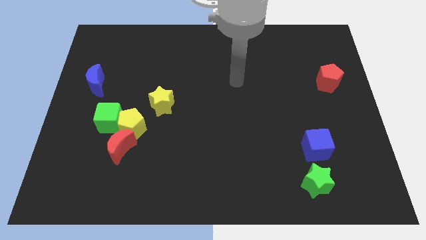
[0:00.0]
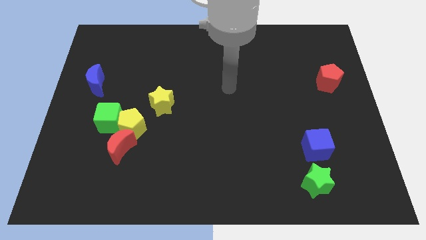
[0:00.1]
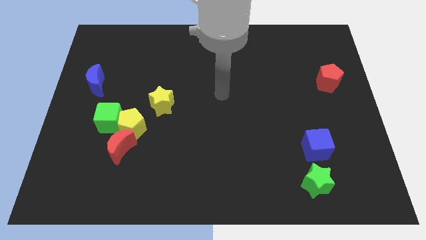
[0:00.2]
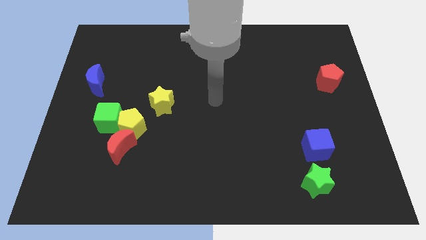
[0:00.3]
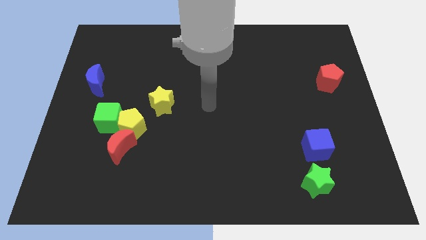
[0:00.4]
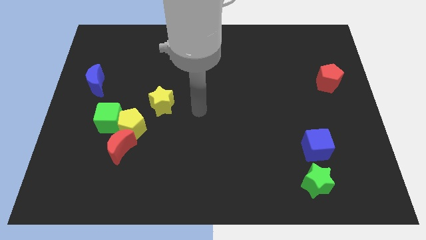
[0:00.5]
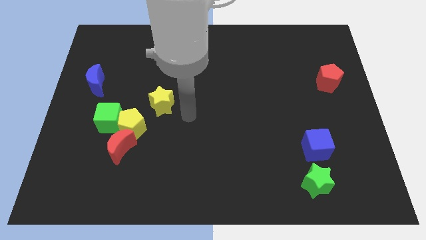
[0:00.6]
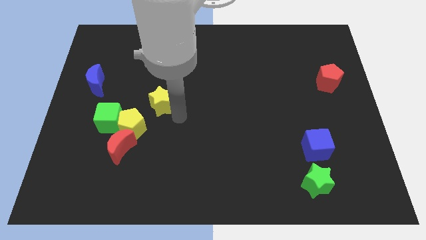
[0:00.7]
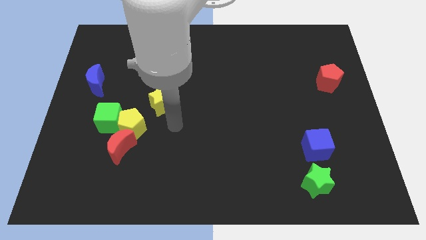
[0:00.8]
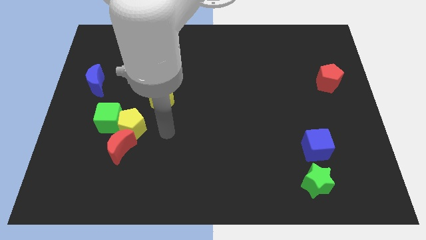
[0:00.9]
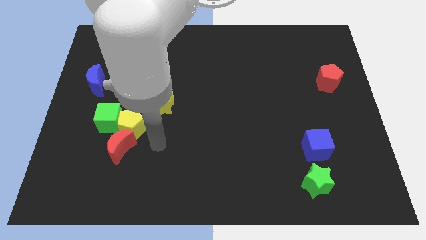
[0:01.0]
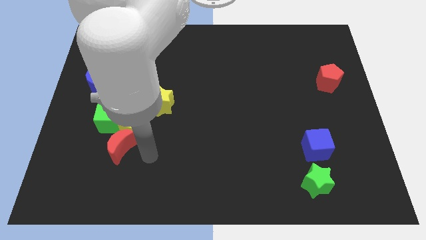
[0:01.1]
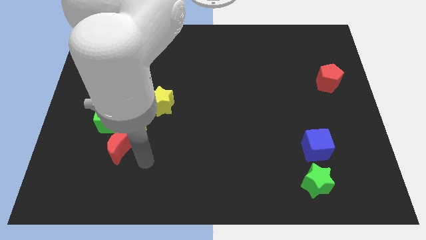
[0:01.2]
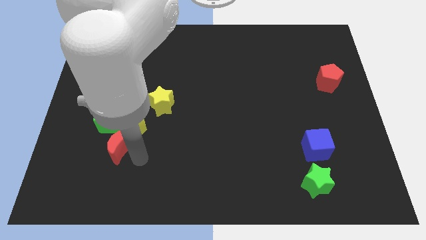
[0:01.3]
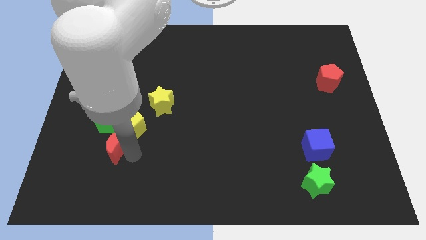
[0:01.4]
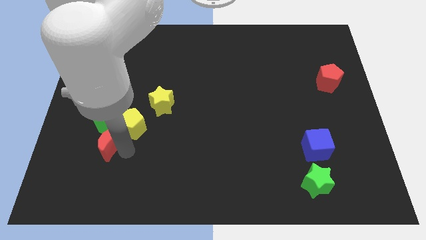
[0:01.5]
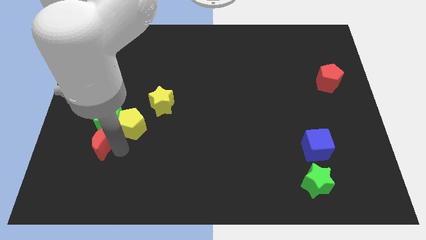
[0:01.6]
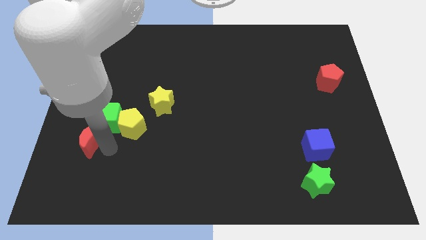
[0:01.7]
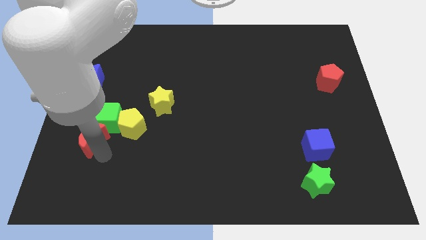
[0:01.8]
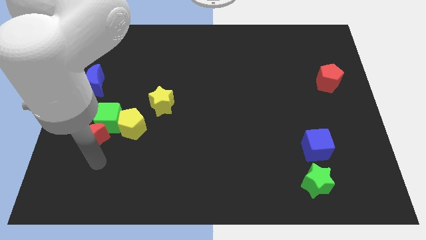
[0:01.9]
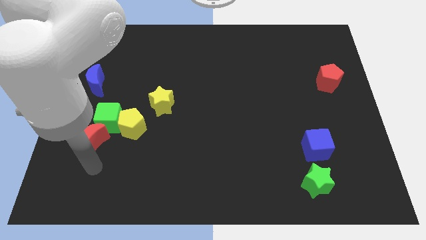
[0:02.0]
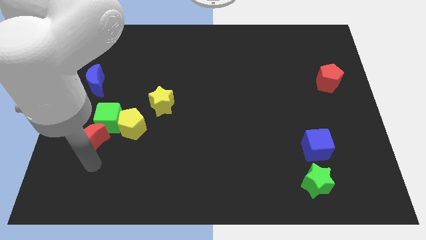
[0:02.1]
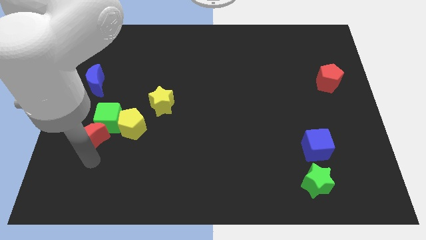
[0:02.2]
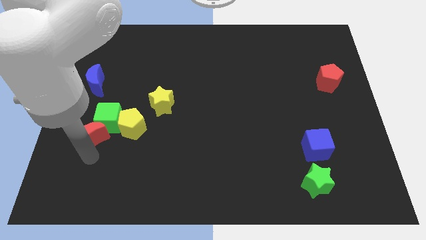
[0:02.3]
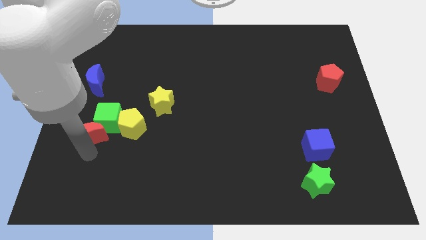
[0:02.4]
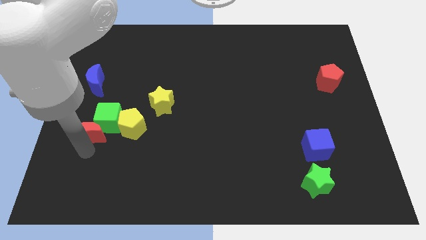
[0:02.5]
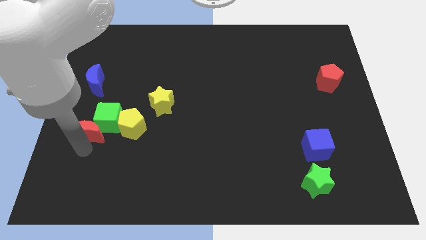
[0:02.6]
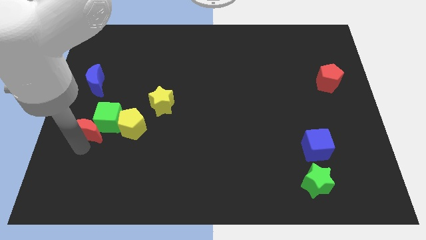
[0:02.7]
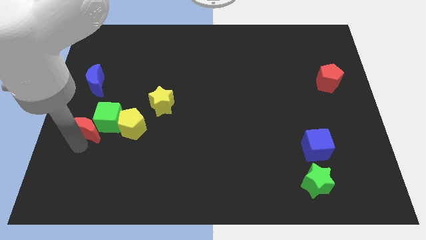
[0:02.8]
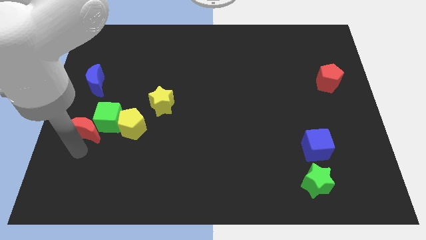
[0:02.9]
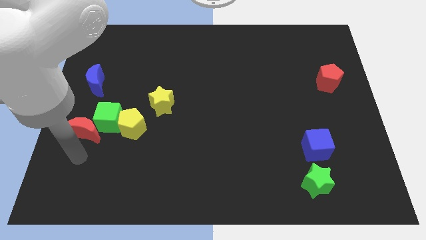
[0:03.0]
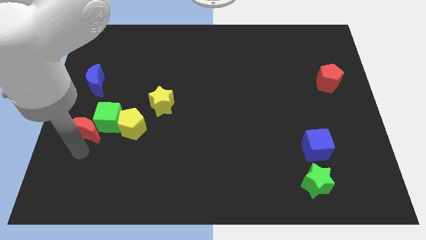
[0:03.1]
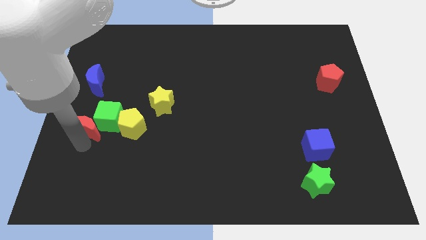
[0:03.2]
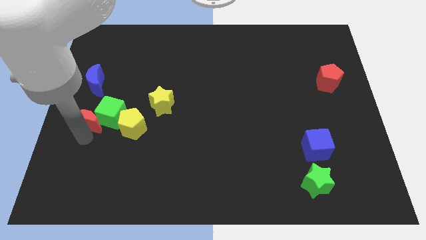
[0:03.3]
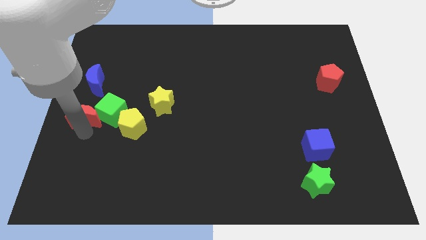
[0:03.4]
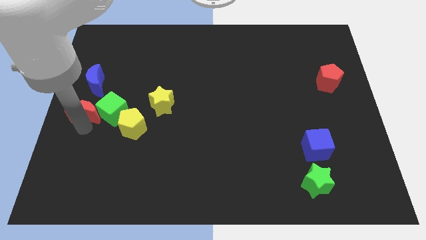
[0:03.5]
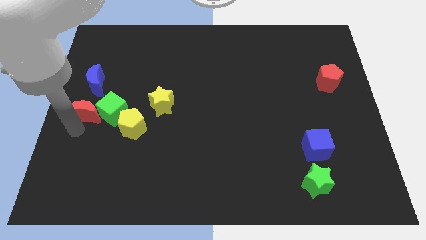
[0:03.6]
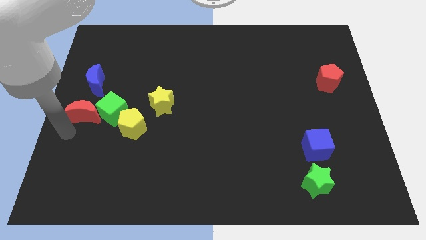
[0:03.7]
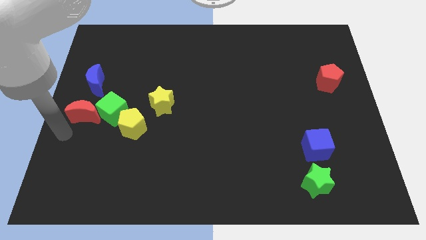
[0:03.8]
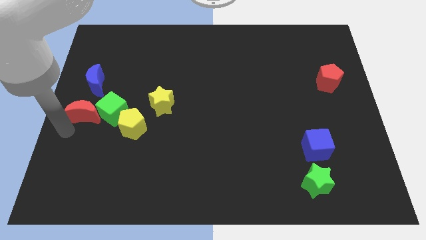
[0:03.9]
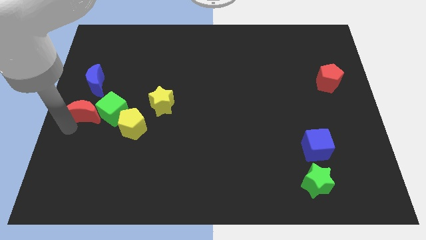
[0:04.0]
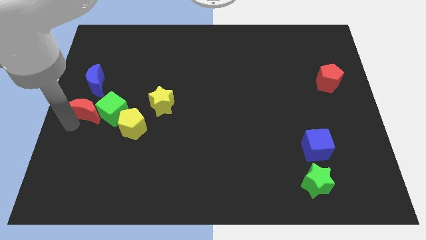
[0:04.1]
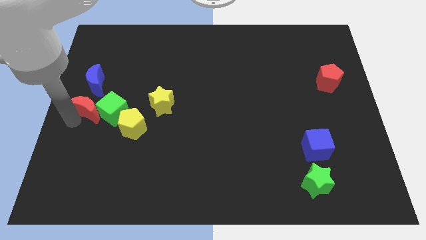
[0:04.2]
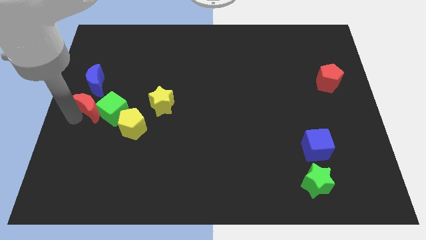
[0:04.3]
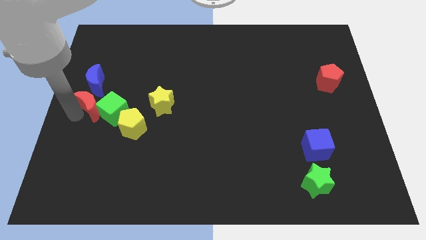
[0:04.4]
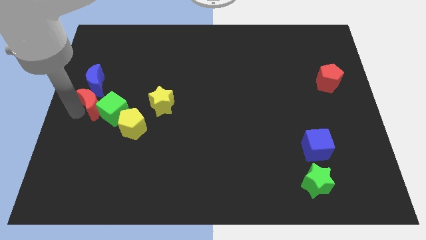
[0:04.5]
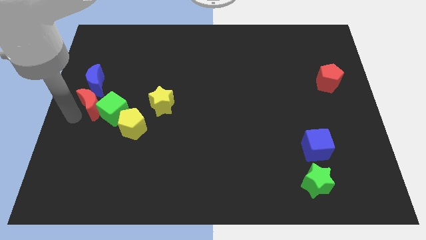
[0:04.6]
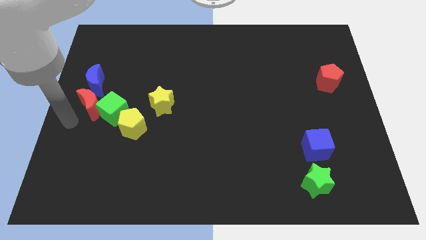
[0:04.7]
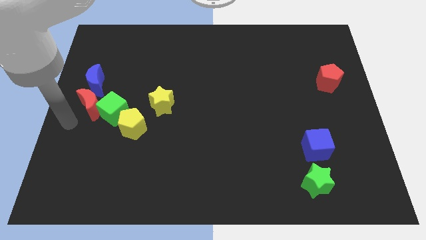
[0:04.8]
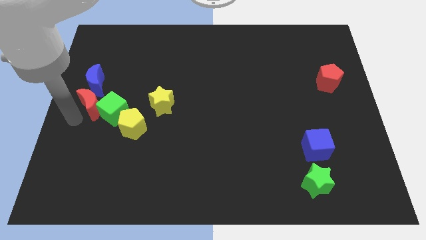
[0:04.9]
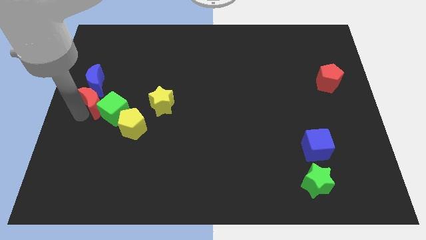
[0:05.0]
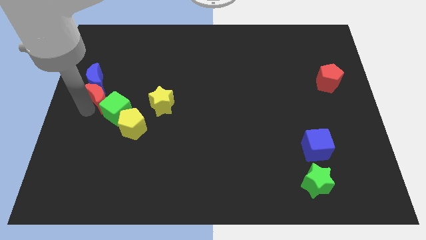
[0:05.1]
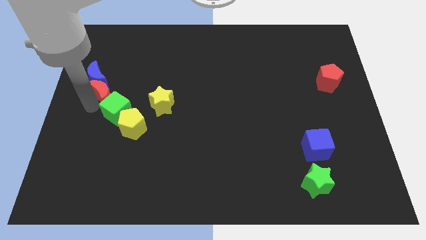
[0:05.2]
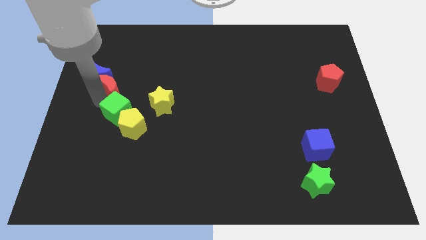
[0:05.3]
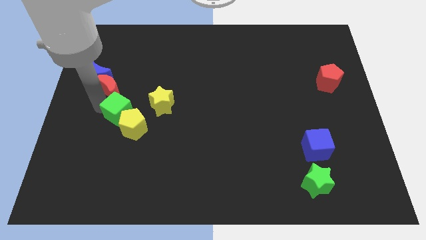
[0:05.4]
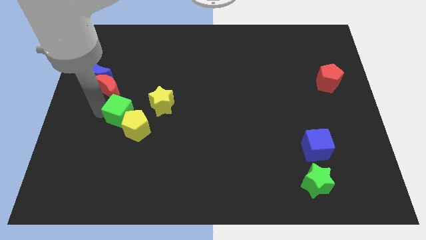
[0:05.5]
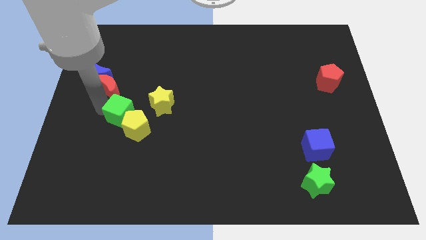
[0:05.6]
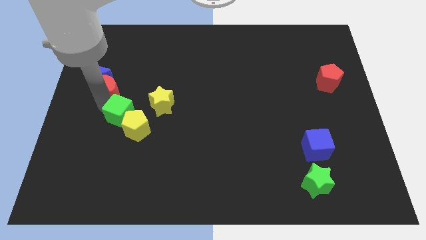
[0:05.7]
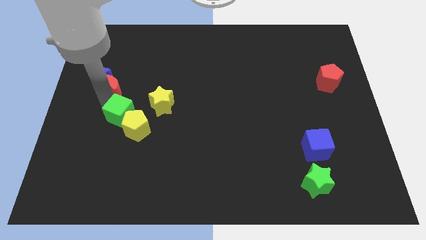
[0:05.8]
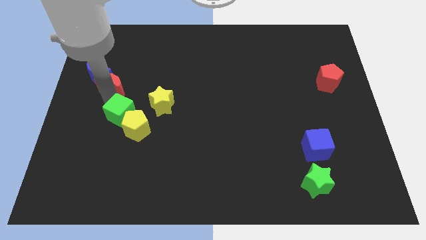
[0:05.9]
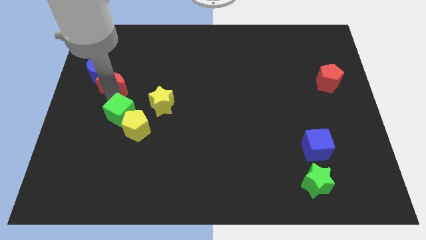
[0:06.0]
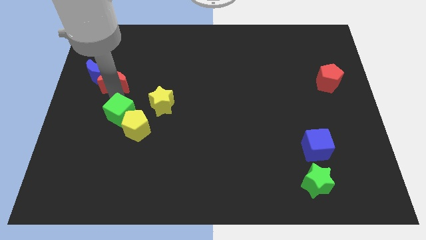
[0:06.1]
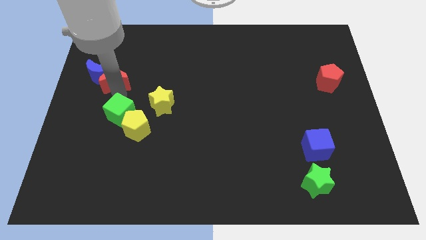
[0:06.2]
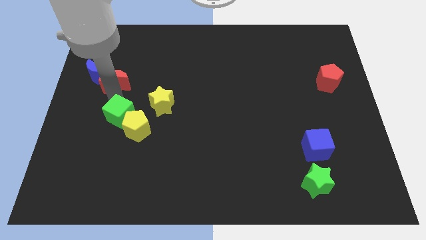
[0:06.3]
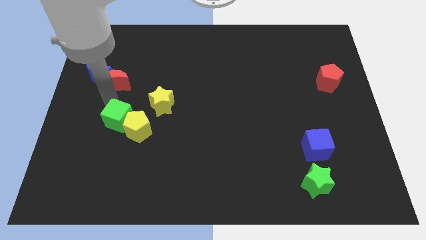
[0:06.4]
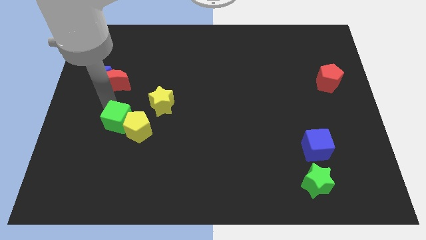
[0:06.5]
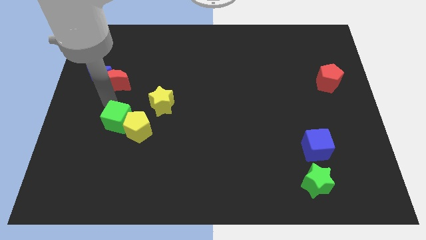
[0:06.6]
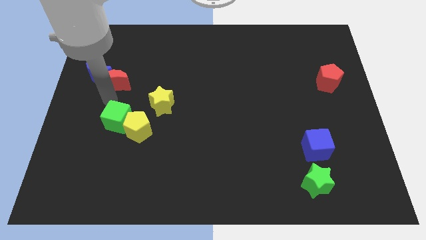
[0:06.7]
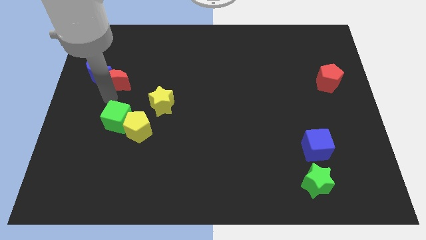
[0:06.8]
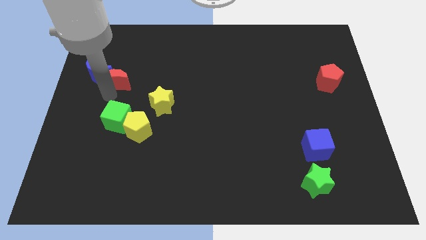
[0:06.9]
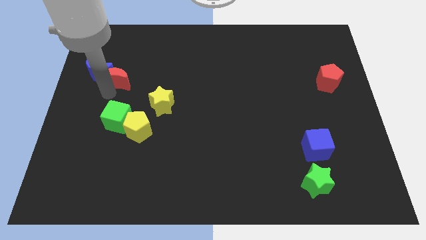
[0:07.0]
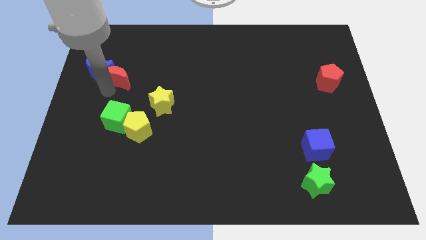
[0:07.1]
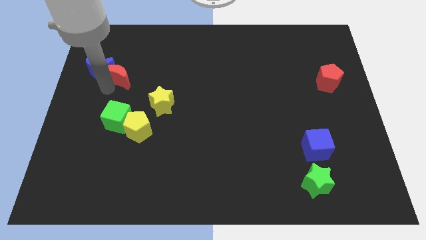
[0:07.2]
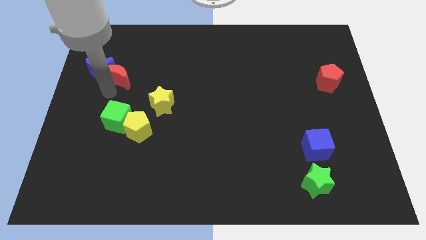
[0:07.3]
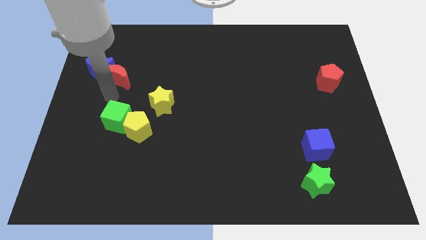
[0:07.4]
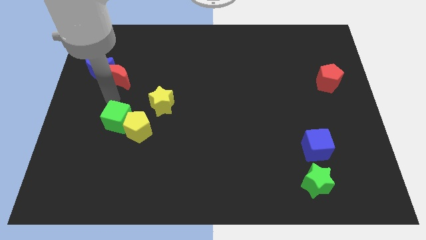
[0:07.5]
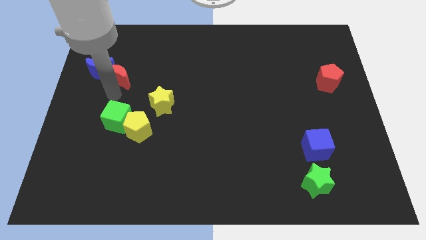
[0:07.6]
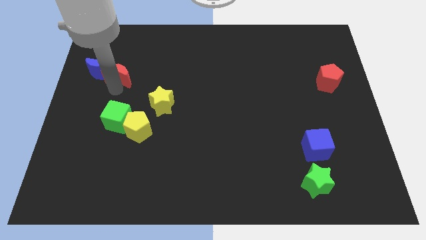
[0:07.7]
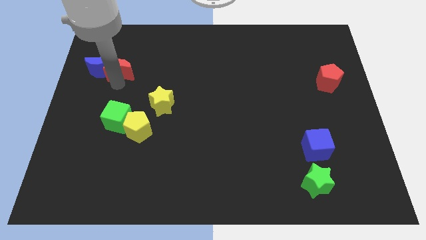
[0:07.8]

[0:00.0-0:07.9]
move the red moon to the top right side of the blue moon
